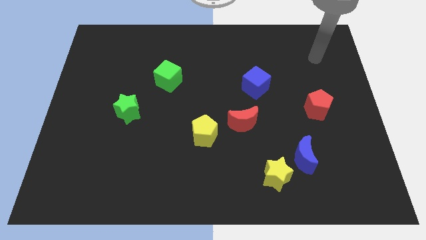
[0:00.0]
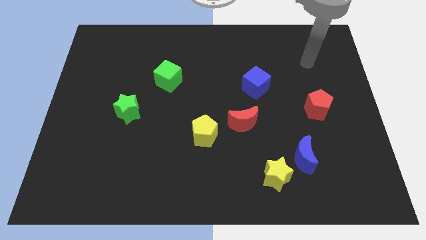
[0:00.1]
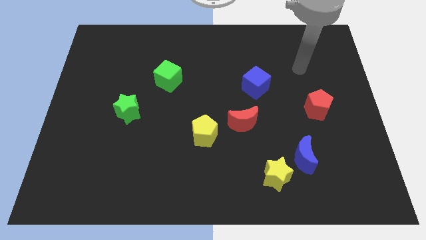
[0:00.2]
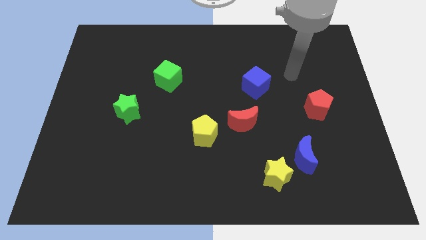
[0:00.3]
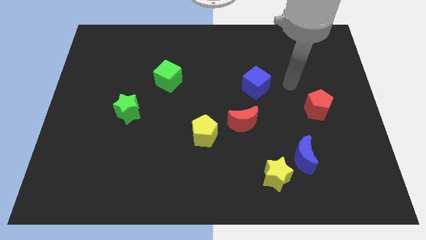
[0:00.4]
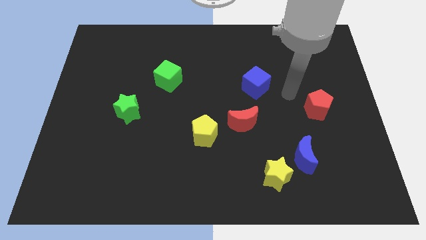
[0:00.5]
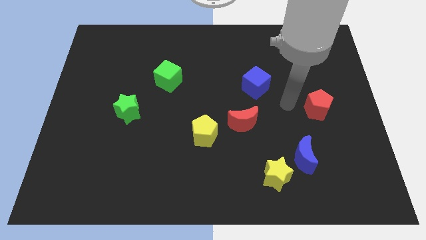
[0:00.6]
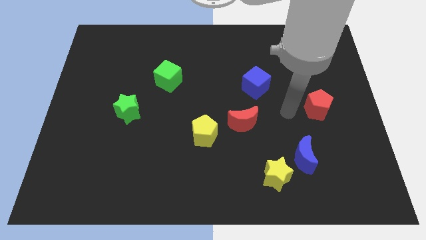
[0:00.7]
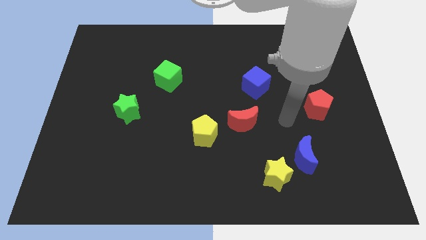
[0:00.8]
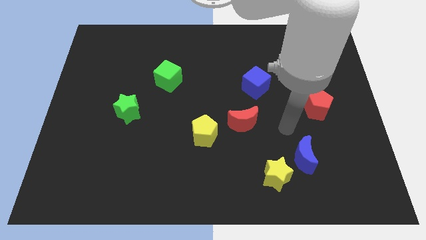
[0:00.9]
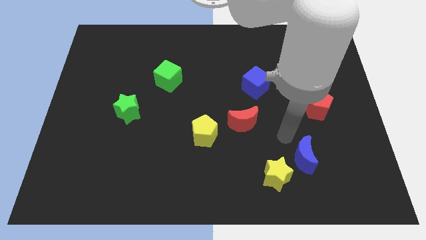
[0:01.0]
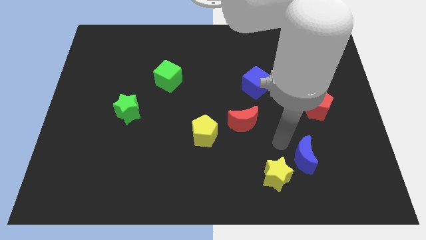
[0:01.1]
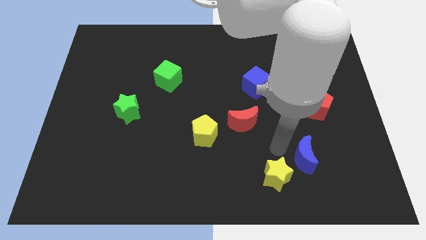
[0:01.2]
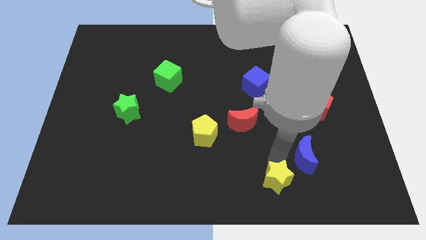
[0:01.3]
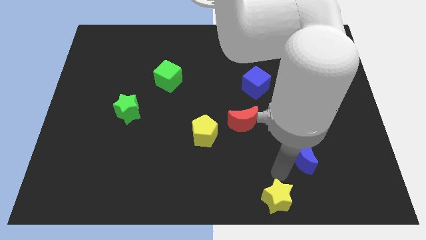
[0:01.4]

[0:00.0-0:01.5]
separate the blue moon from the yellow star

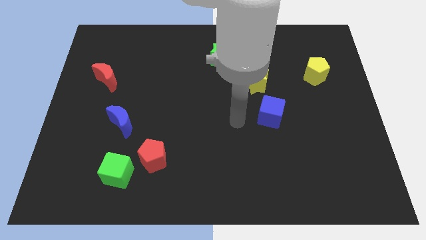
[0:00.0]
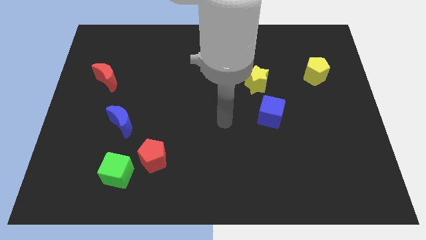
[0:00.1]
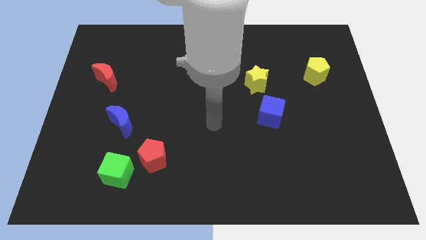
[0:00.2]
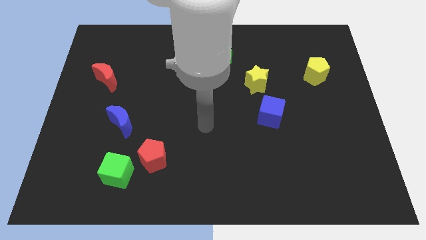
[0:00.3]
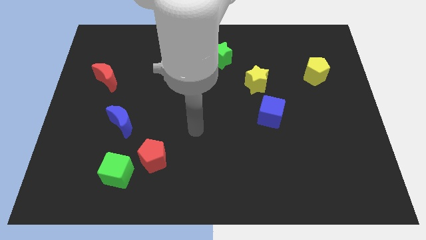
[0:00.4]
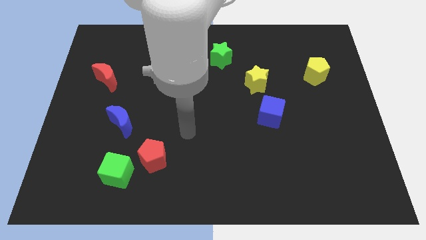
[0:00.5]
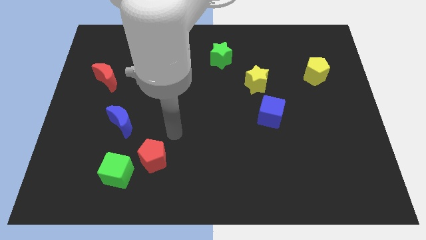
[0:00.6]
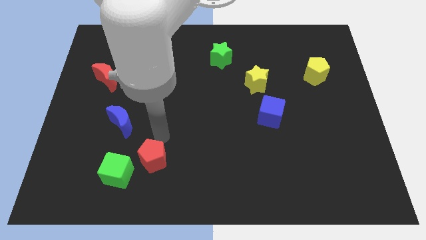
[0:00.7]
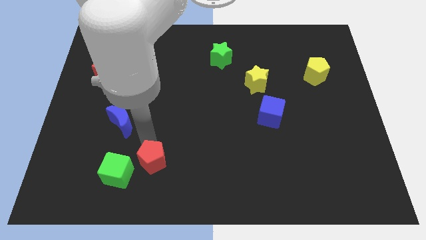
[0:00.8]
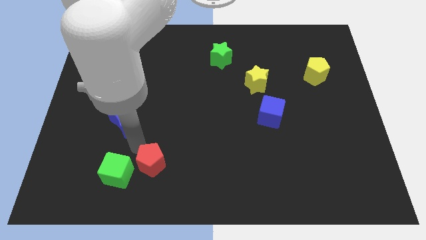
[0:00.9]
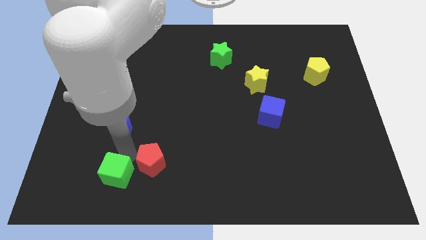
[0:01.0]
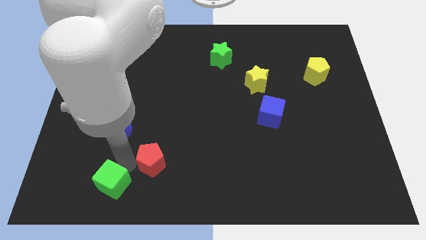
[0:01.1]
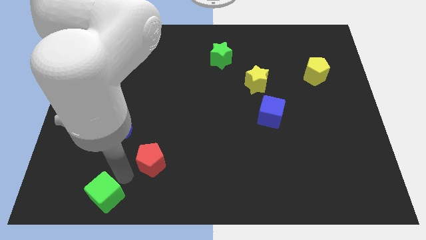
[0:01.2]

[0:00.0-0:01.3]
pull the red pentagon apart from the green cube

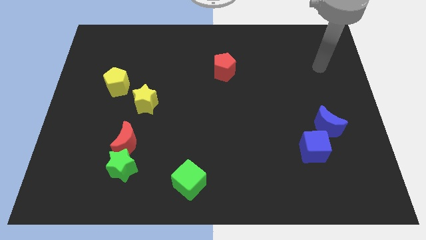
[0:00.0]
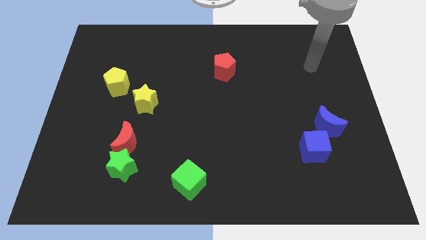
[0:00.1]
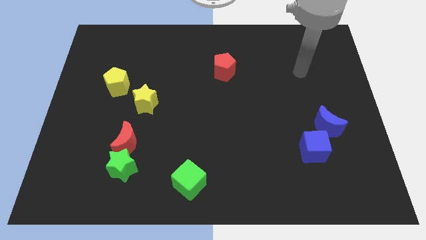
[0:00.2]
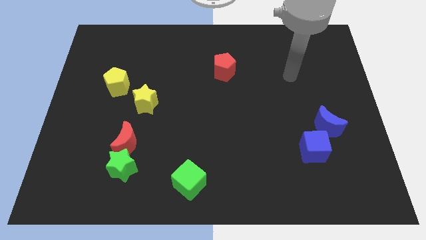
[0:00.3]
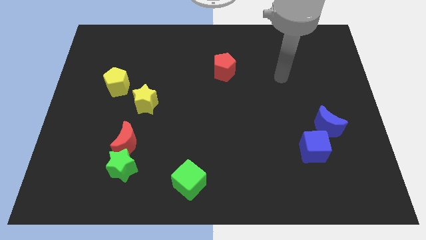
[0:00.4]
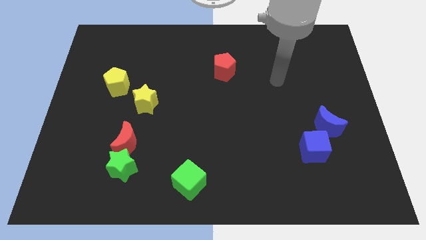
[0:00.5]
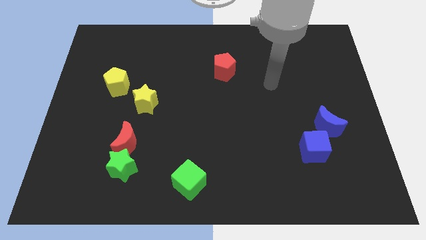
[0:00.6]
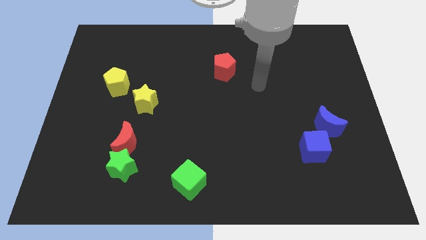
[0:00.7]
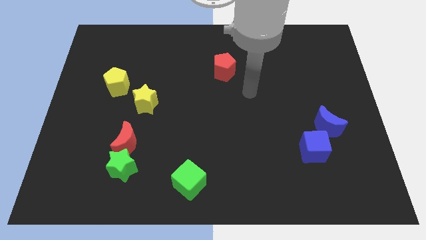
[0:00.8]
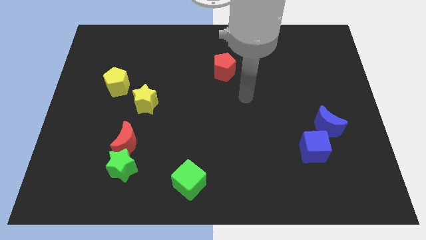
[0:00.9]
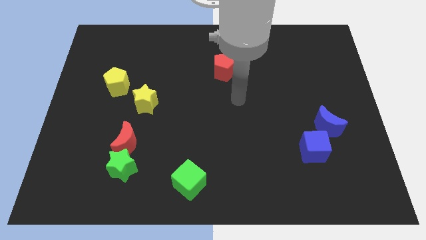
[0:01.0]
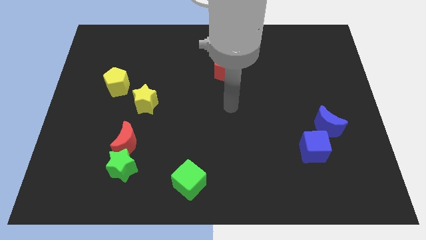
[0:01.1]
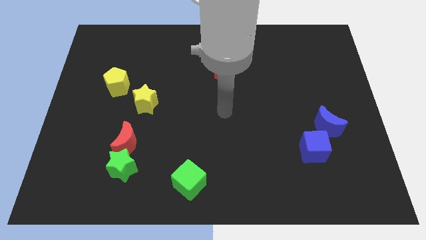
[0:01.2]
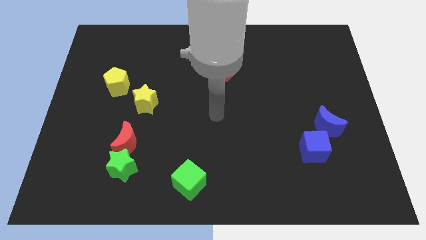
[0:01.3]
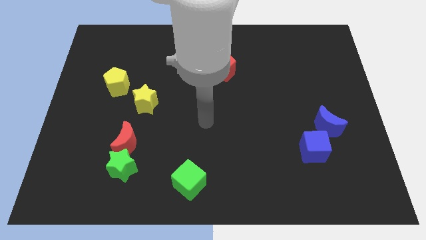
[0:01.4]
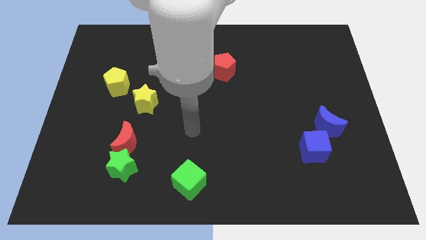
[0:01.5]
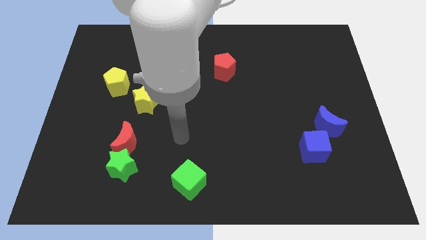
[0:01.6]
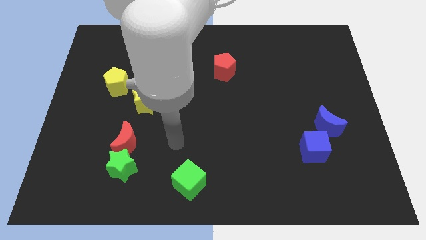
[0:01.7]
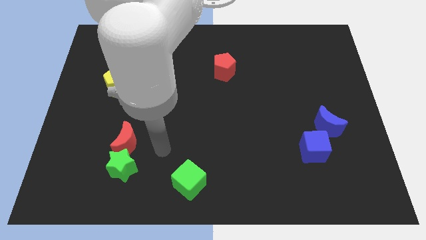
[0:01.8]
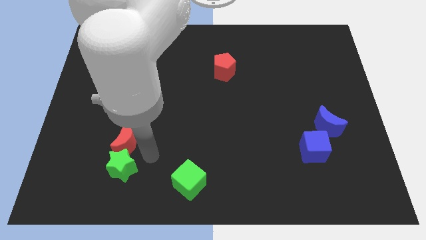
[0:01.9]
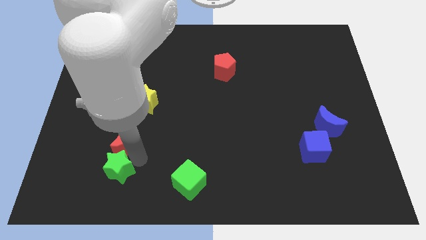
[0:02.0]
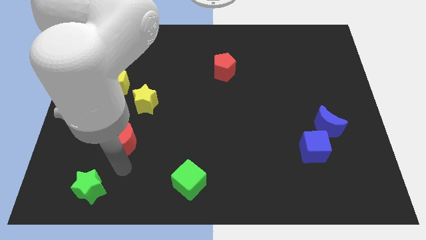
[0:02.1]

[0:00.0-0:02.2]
separate the red moon from the green star

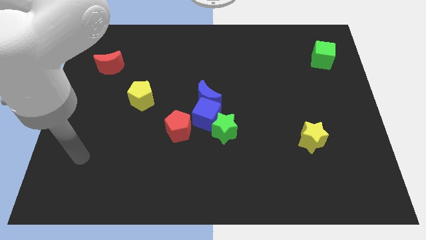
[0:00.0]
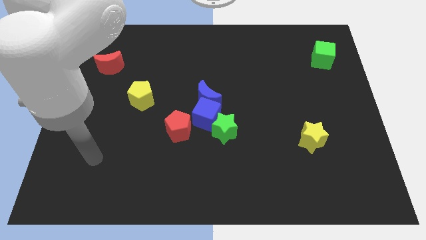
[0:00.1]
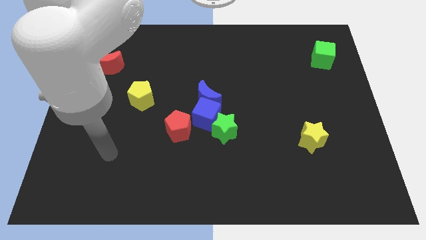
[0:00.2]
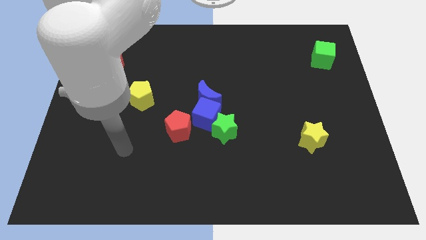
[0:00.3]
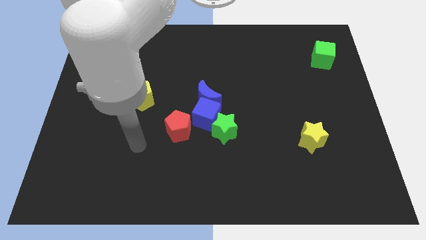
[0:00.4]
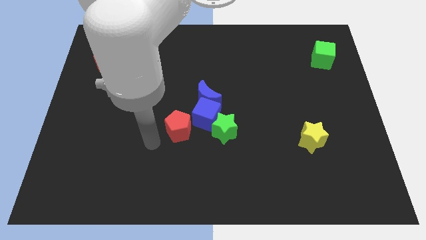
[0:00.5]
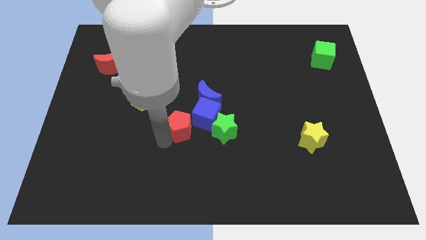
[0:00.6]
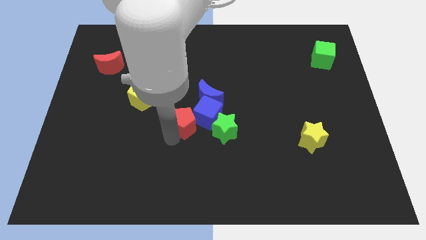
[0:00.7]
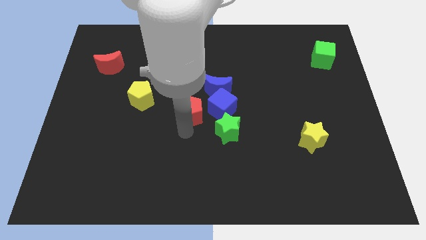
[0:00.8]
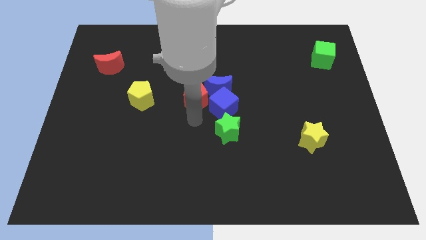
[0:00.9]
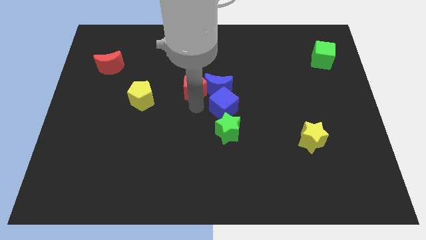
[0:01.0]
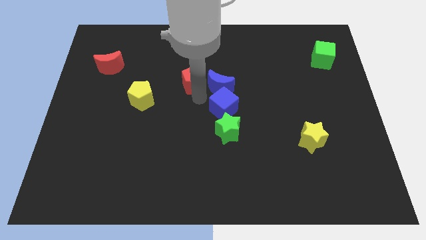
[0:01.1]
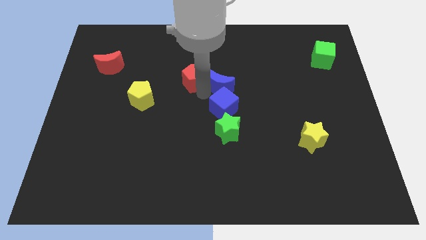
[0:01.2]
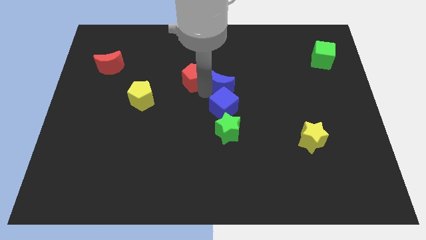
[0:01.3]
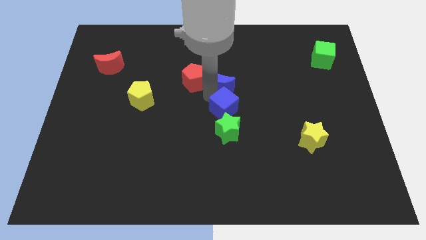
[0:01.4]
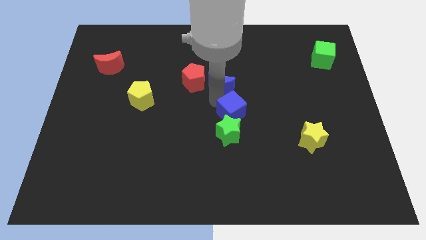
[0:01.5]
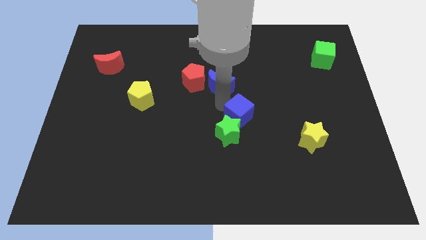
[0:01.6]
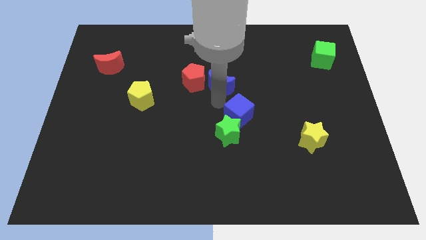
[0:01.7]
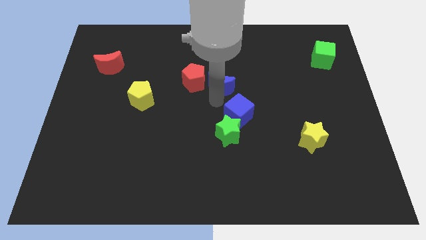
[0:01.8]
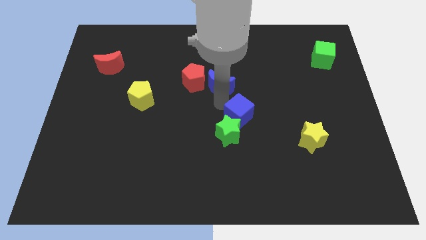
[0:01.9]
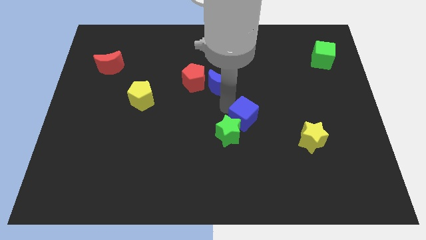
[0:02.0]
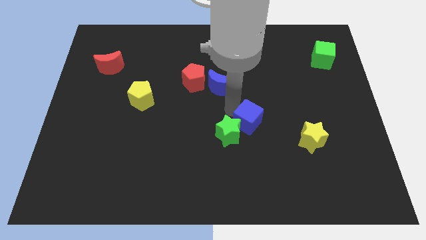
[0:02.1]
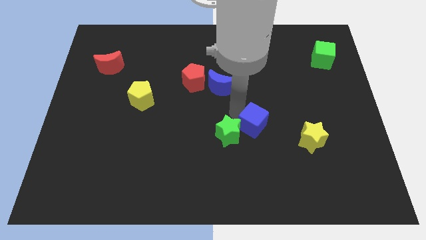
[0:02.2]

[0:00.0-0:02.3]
move the blue cube away from the clump

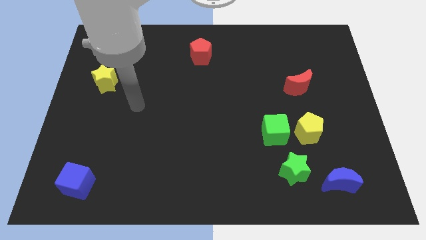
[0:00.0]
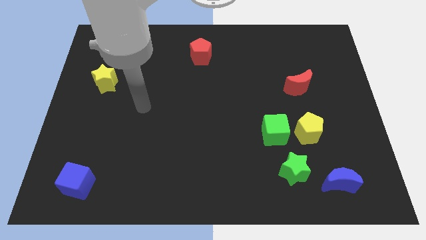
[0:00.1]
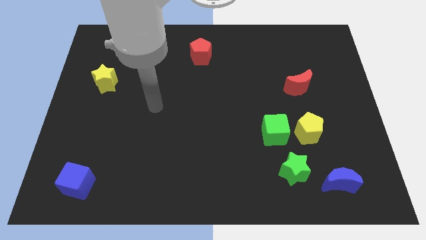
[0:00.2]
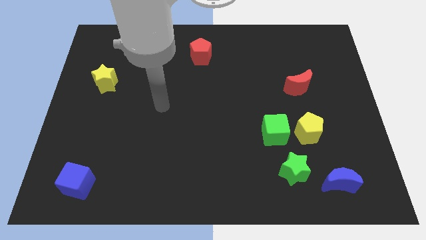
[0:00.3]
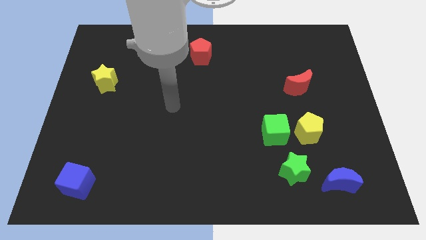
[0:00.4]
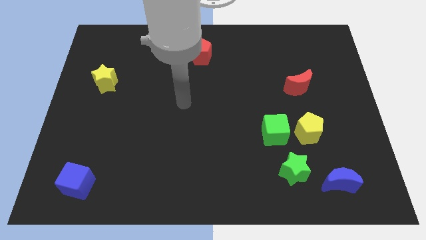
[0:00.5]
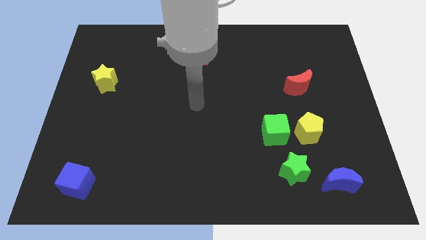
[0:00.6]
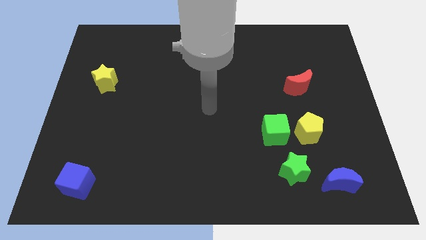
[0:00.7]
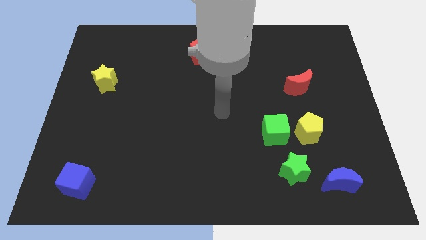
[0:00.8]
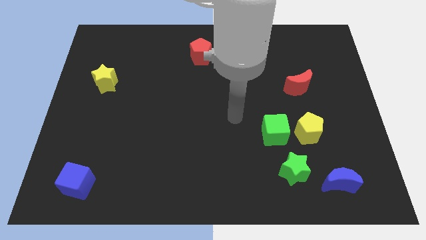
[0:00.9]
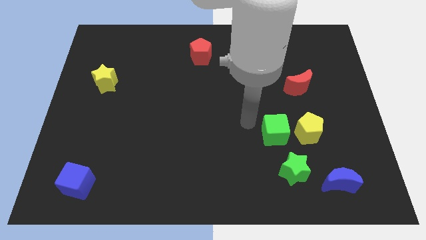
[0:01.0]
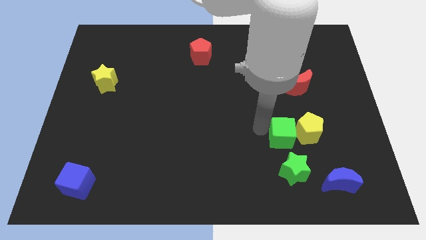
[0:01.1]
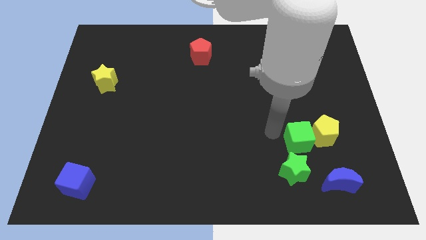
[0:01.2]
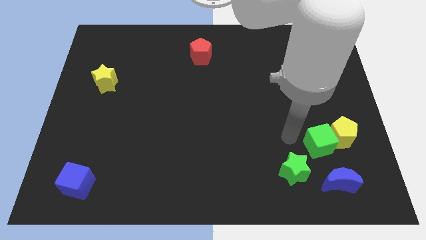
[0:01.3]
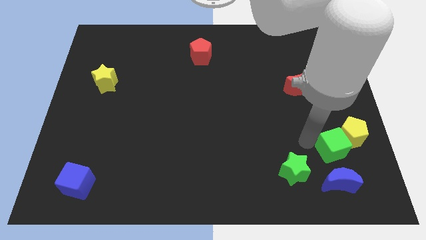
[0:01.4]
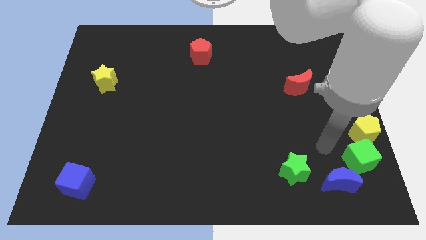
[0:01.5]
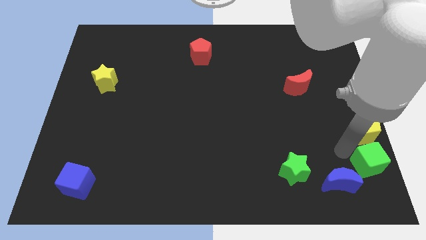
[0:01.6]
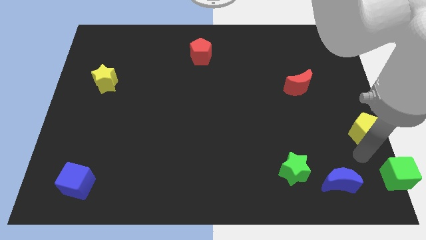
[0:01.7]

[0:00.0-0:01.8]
move the yellow pentagon away from the green cube

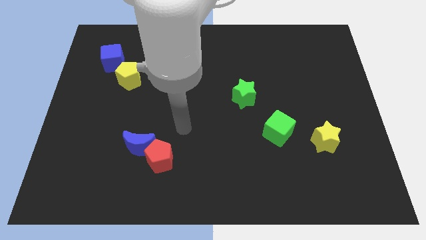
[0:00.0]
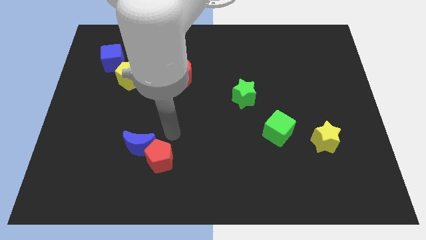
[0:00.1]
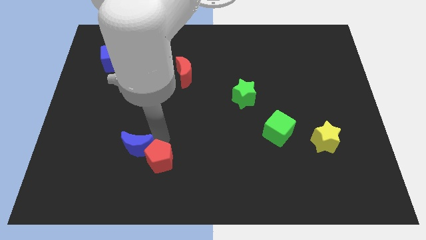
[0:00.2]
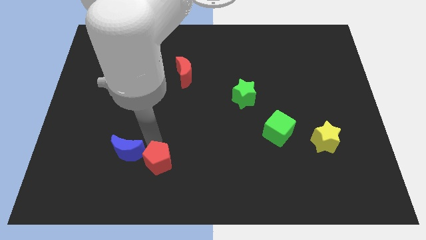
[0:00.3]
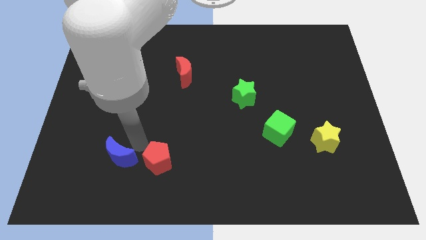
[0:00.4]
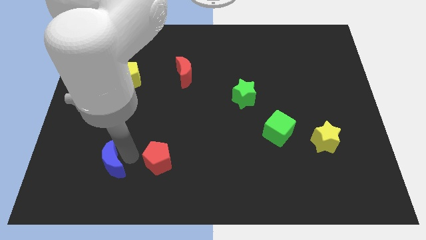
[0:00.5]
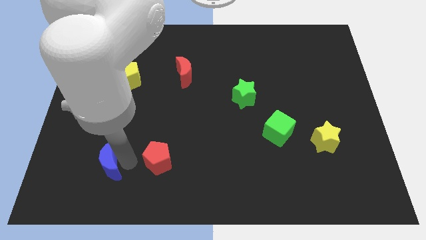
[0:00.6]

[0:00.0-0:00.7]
separate the red pentagon from the blue moon
